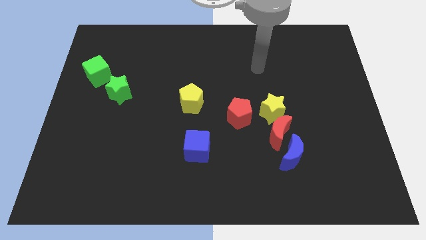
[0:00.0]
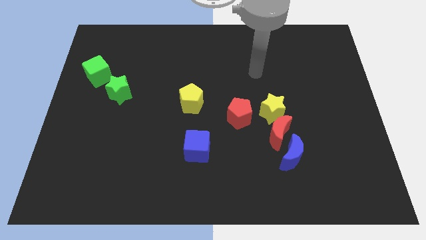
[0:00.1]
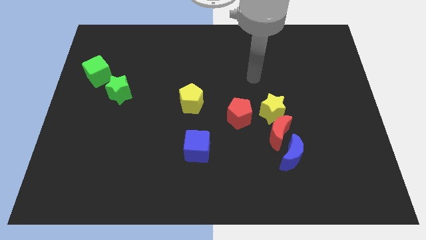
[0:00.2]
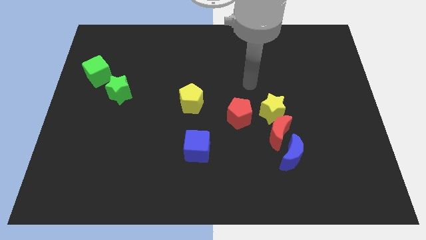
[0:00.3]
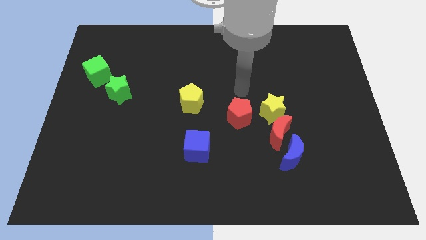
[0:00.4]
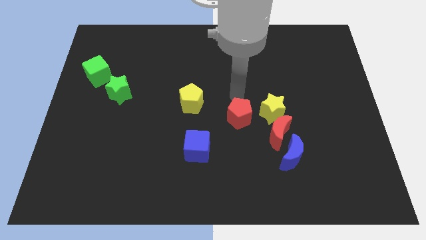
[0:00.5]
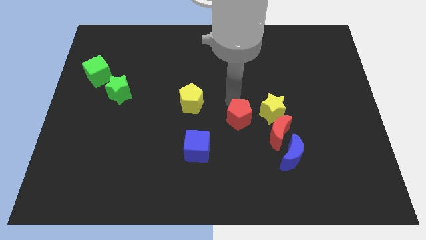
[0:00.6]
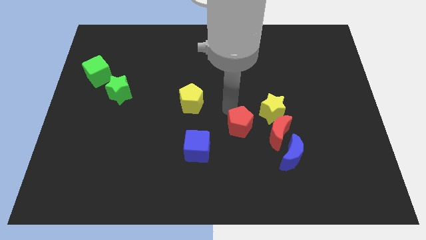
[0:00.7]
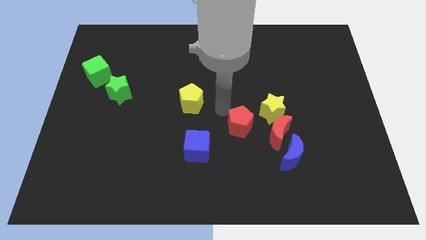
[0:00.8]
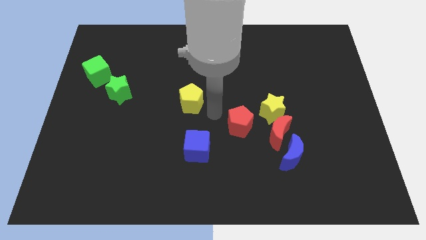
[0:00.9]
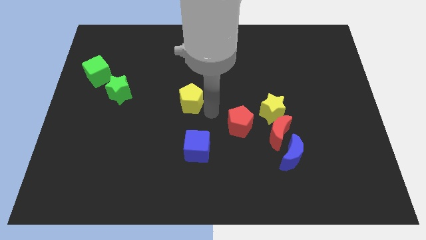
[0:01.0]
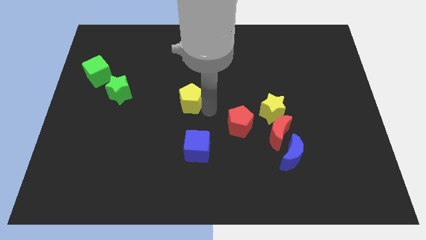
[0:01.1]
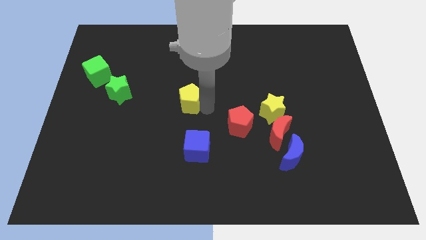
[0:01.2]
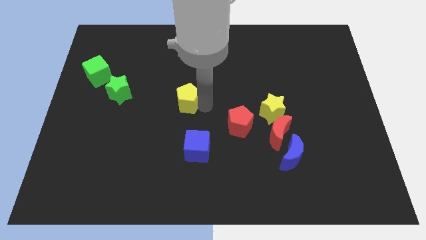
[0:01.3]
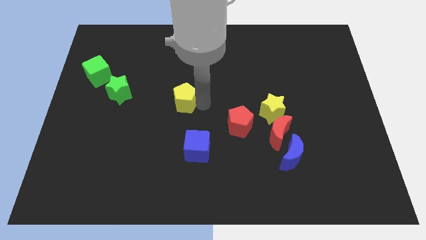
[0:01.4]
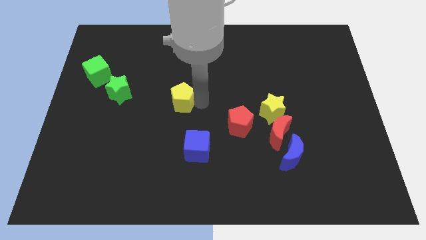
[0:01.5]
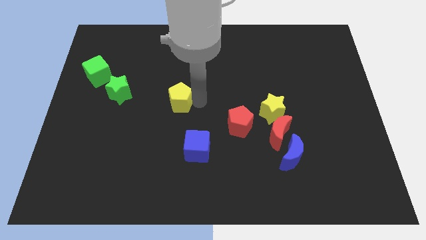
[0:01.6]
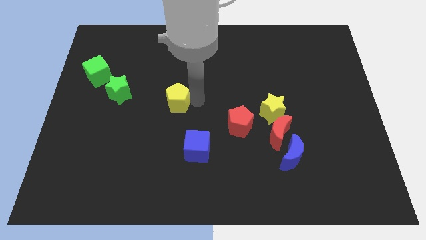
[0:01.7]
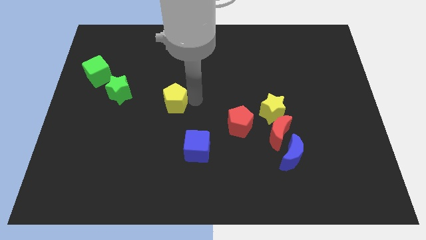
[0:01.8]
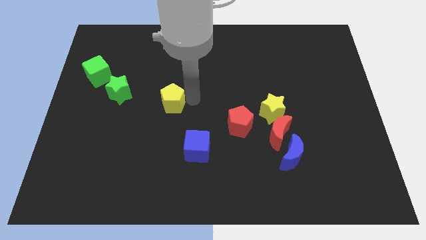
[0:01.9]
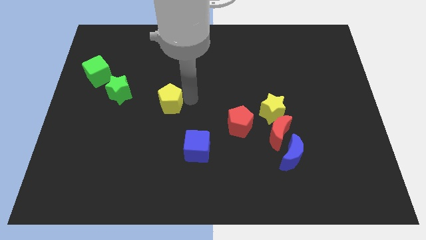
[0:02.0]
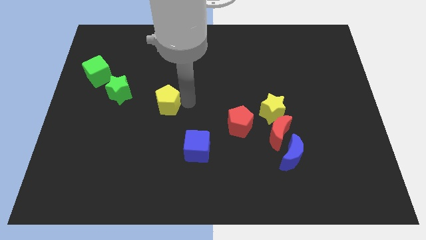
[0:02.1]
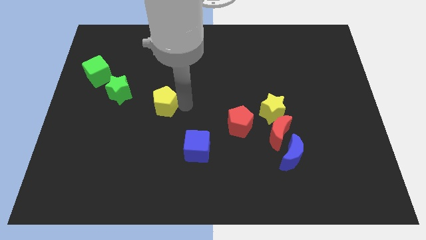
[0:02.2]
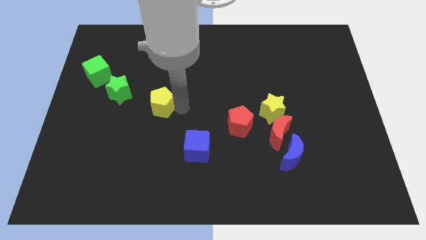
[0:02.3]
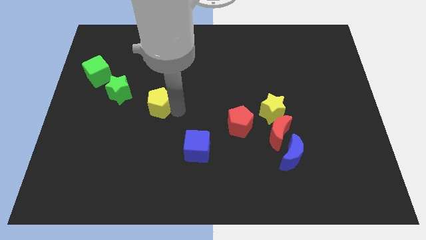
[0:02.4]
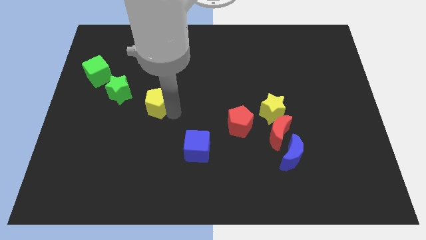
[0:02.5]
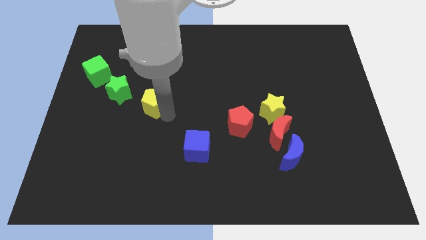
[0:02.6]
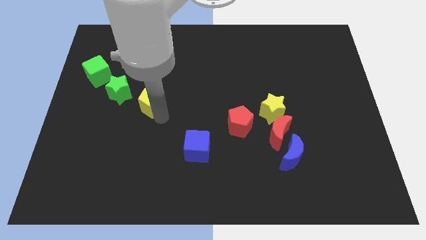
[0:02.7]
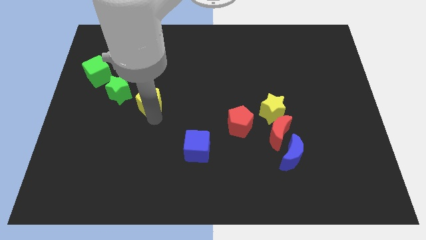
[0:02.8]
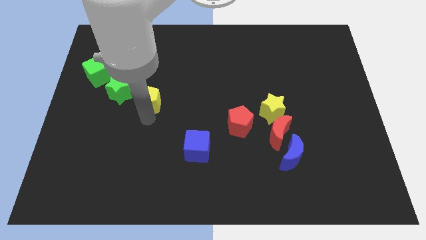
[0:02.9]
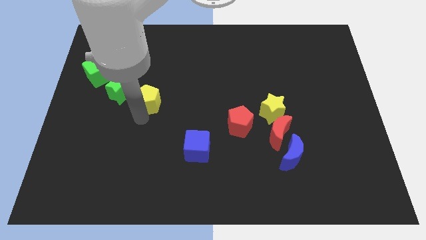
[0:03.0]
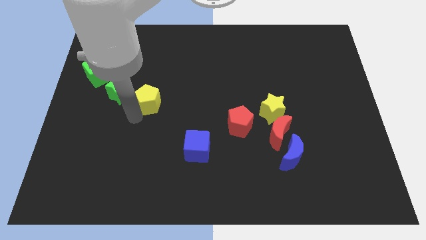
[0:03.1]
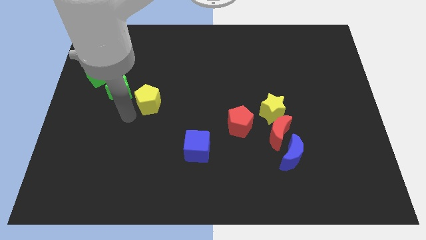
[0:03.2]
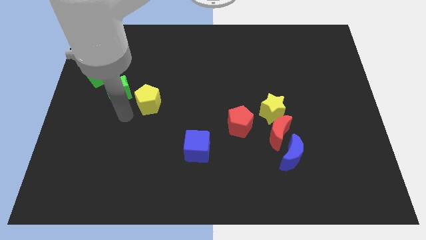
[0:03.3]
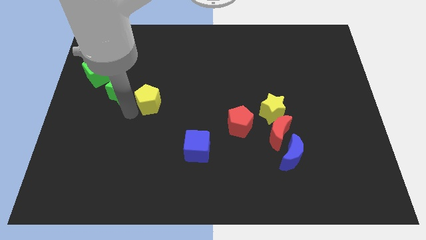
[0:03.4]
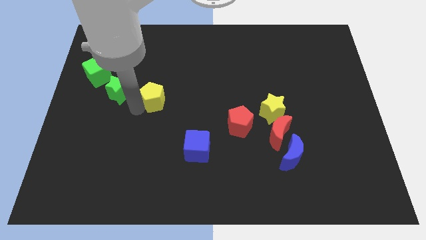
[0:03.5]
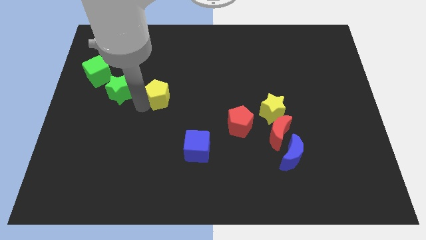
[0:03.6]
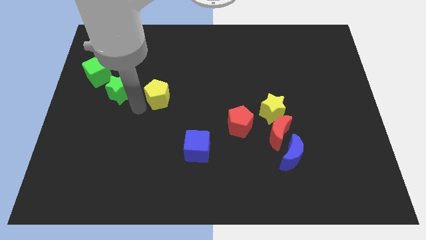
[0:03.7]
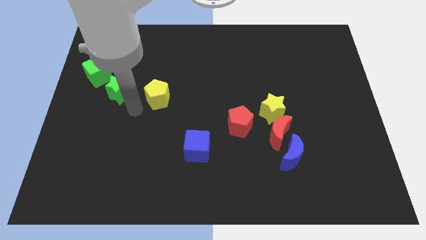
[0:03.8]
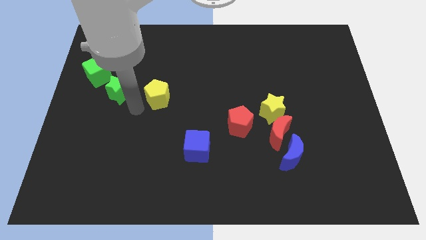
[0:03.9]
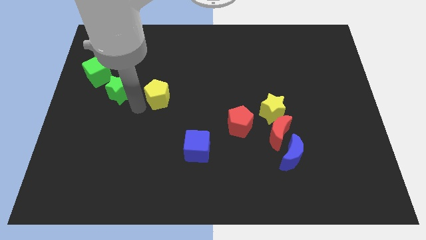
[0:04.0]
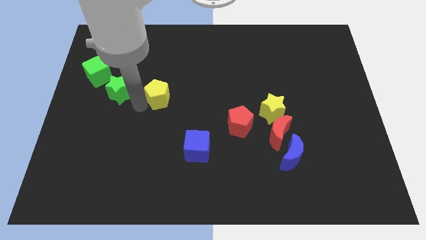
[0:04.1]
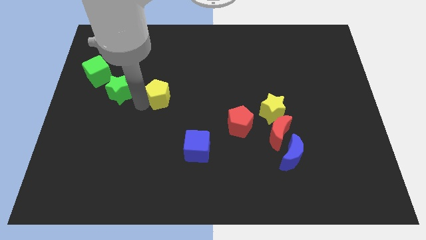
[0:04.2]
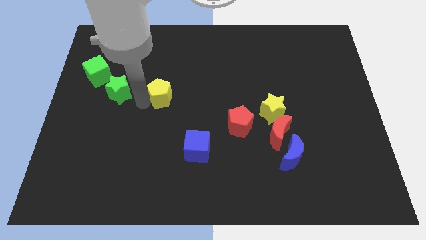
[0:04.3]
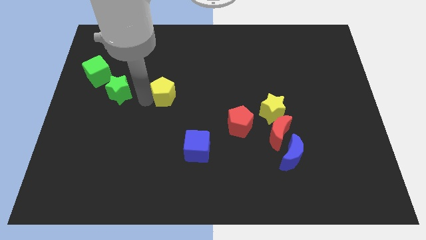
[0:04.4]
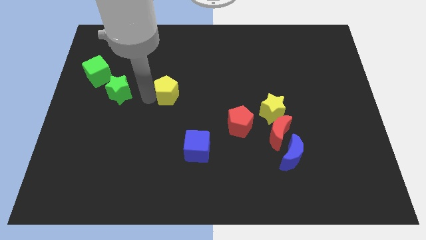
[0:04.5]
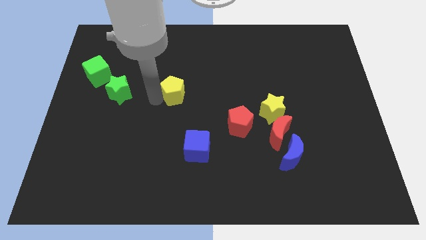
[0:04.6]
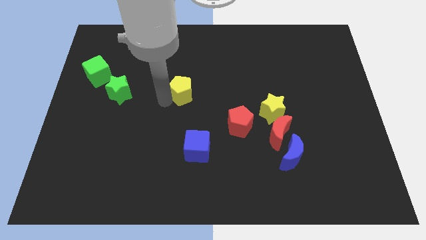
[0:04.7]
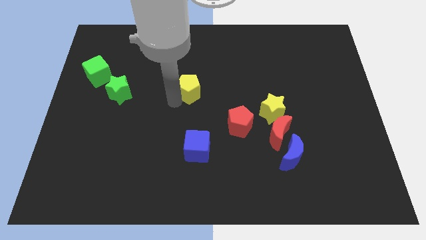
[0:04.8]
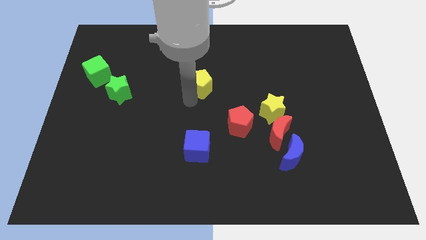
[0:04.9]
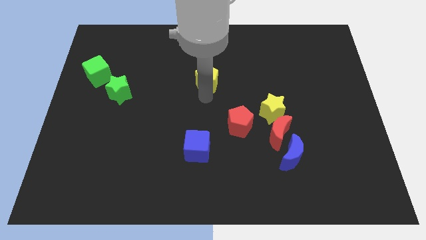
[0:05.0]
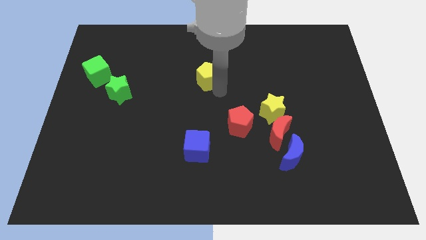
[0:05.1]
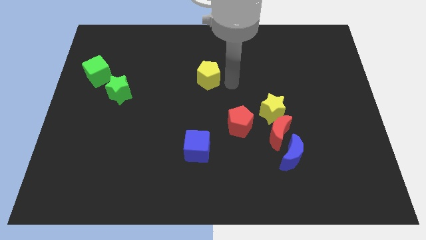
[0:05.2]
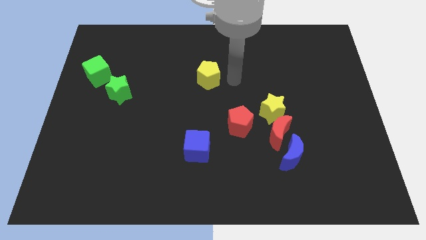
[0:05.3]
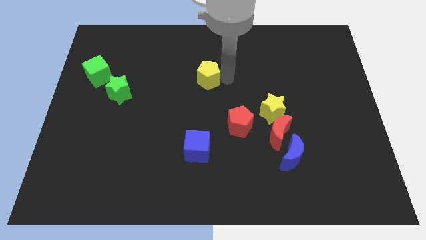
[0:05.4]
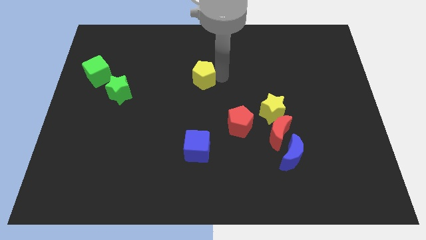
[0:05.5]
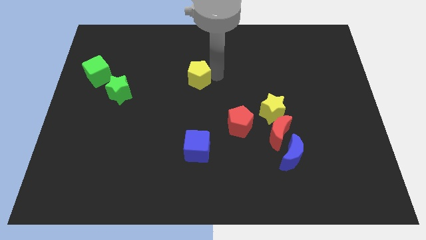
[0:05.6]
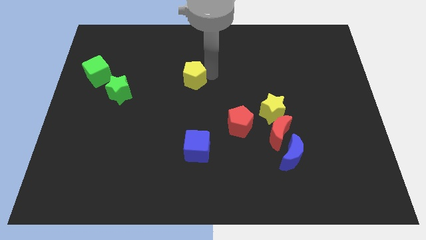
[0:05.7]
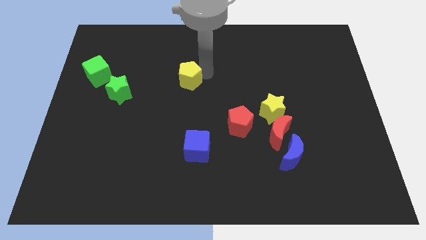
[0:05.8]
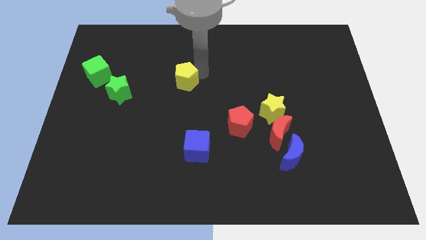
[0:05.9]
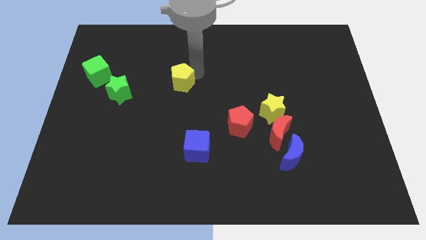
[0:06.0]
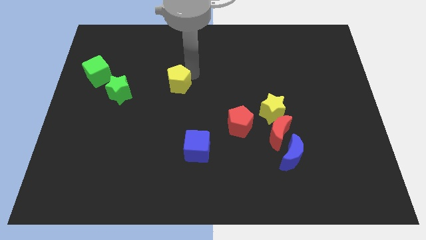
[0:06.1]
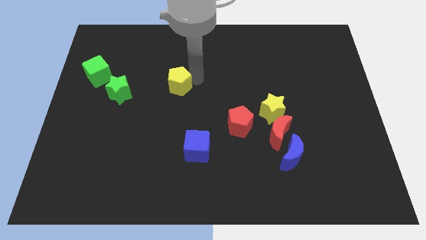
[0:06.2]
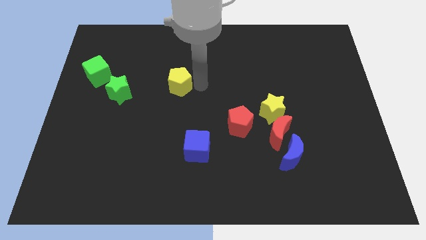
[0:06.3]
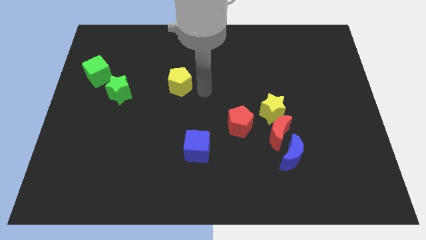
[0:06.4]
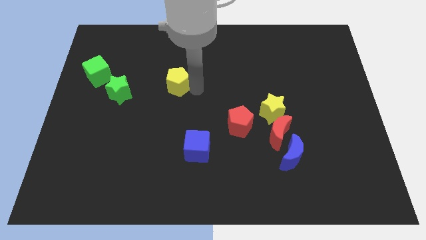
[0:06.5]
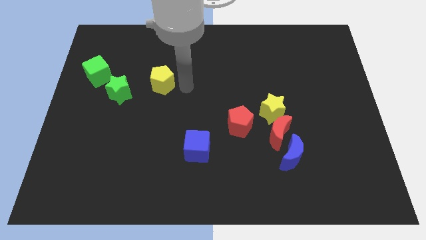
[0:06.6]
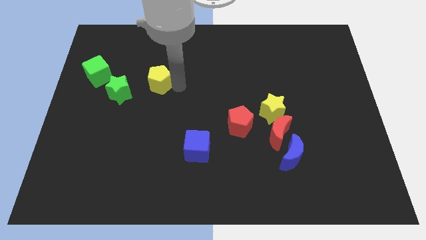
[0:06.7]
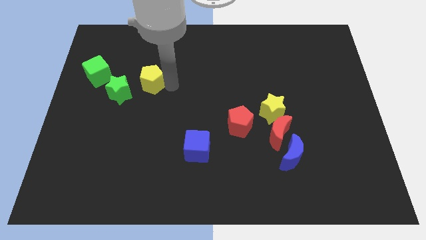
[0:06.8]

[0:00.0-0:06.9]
move the yellow pentagon to the right of the green cube

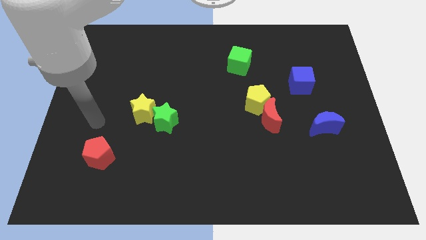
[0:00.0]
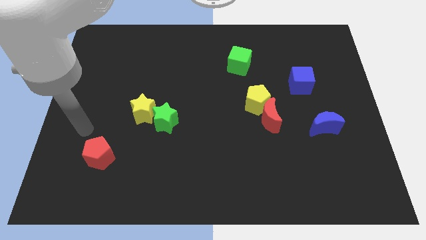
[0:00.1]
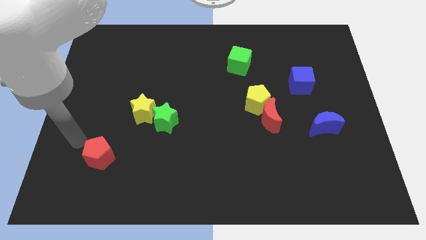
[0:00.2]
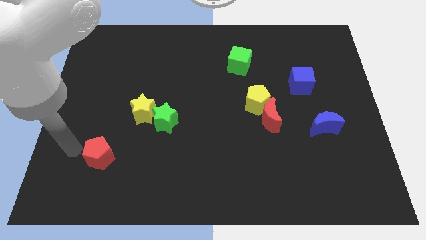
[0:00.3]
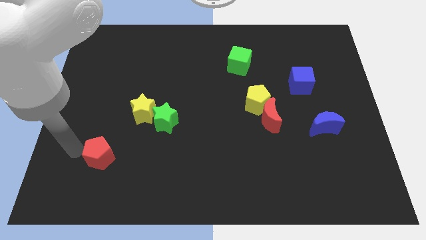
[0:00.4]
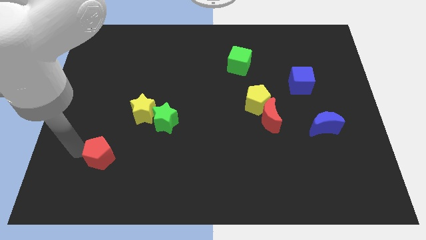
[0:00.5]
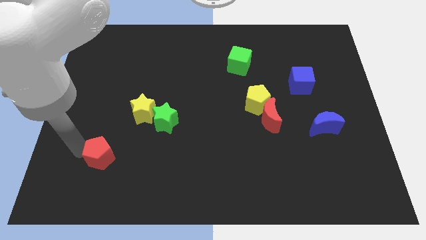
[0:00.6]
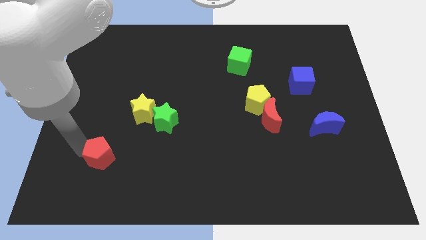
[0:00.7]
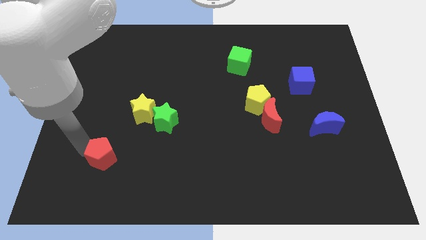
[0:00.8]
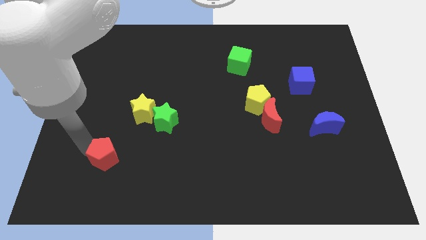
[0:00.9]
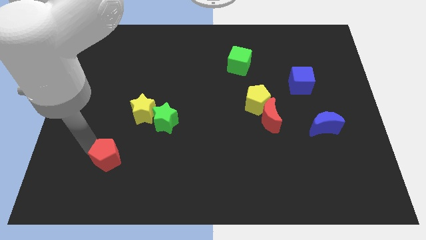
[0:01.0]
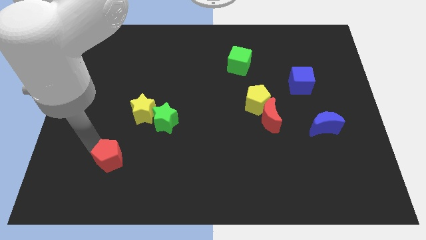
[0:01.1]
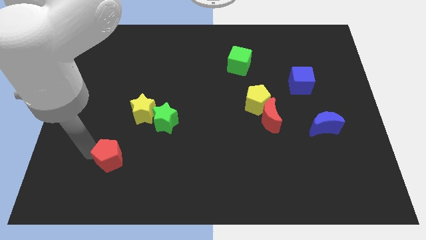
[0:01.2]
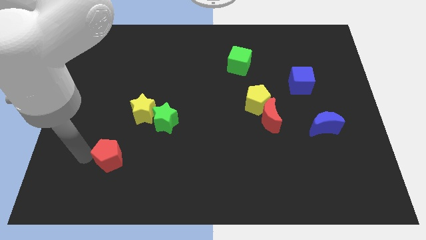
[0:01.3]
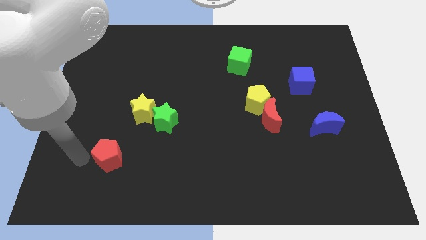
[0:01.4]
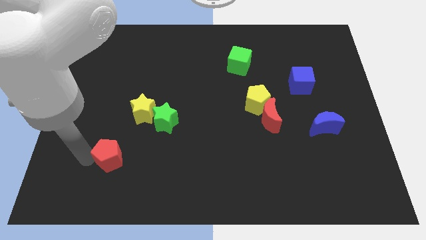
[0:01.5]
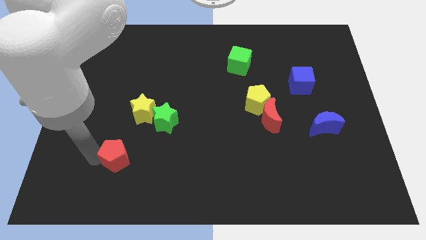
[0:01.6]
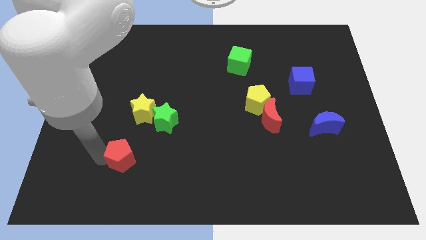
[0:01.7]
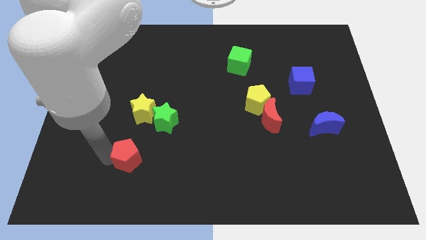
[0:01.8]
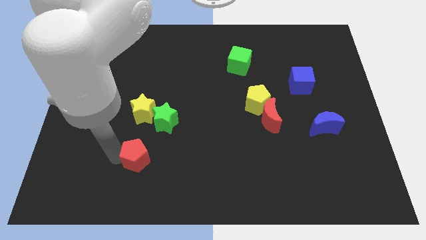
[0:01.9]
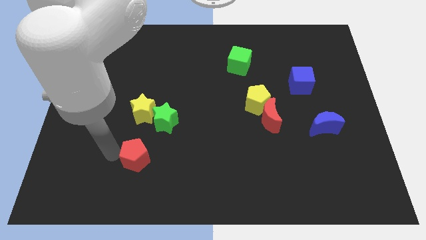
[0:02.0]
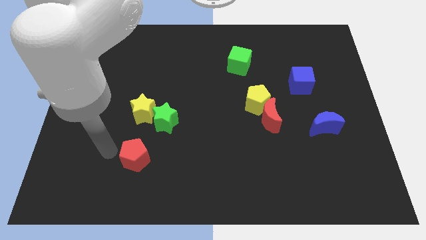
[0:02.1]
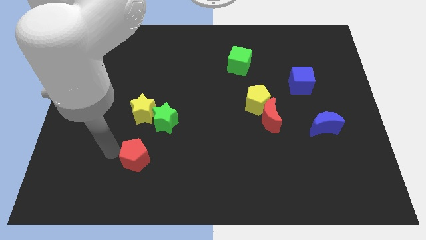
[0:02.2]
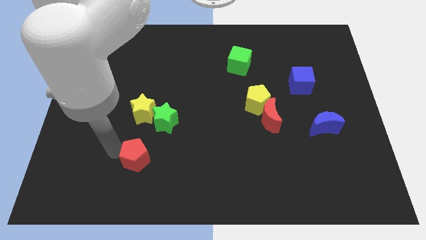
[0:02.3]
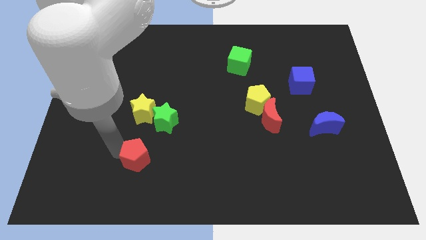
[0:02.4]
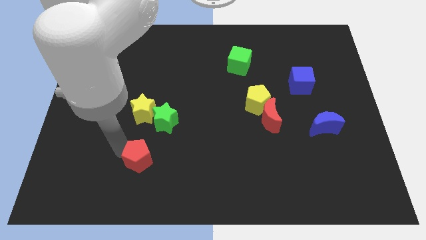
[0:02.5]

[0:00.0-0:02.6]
push the red pentagon to the bottom side of the green star
